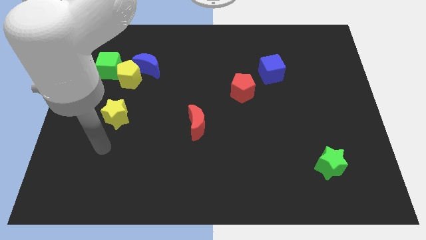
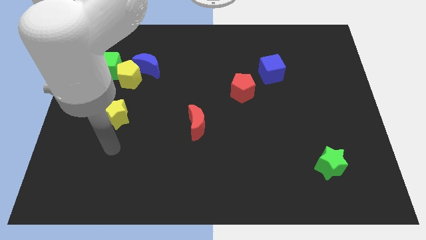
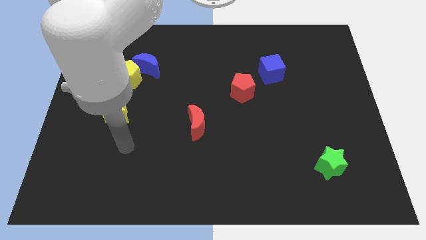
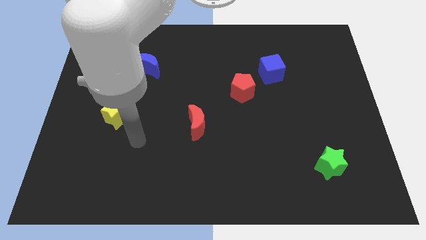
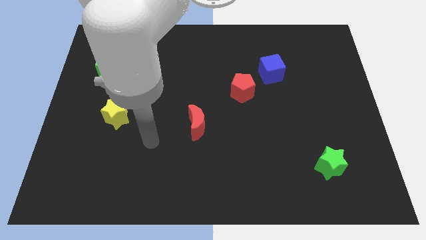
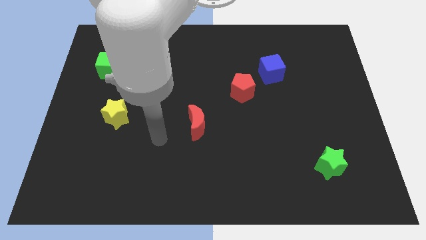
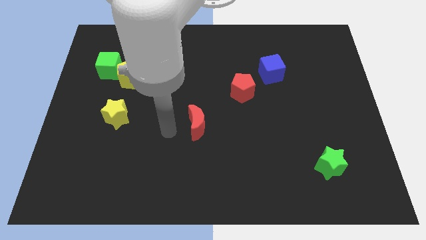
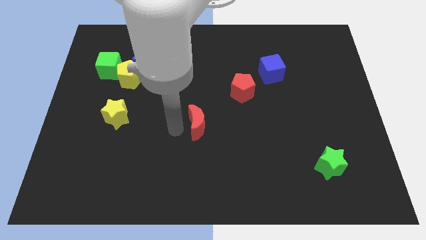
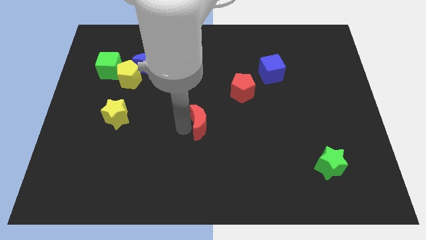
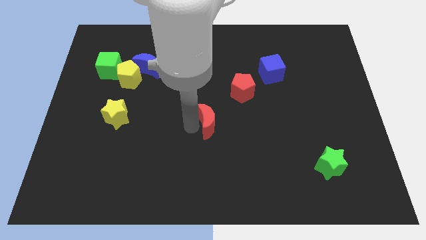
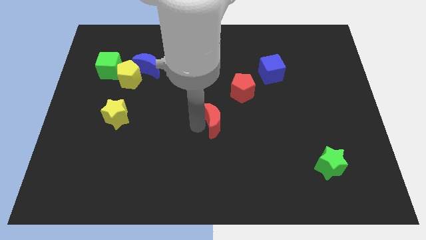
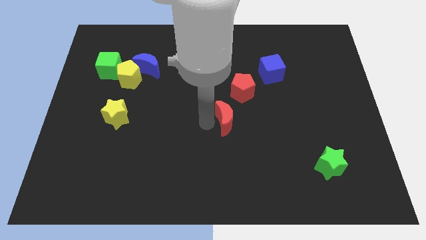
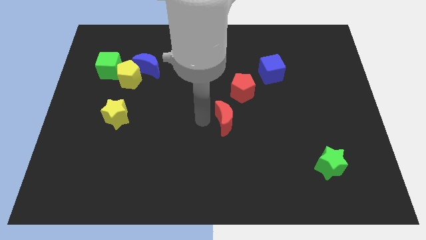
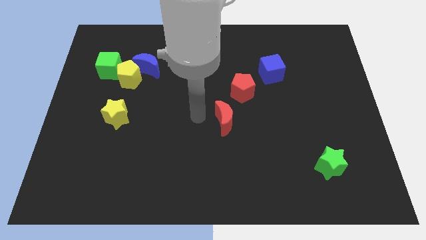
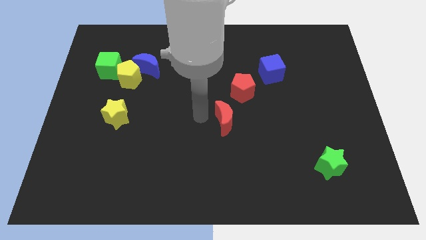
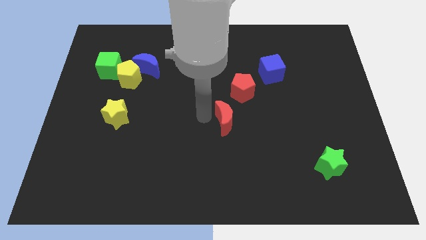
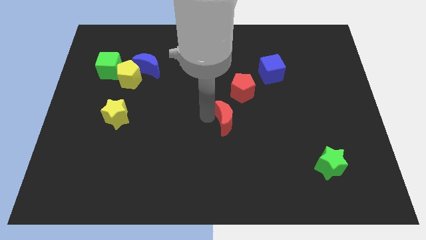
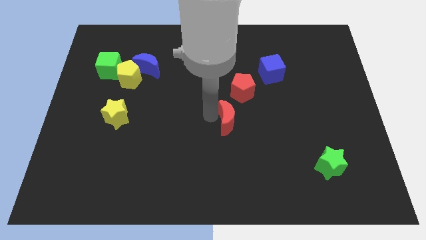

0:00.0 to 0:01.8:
move the red moon a bit right

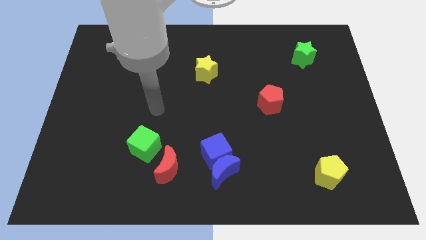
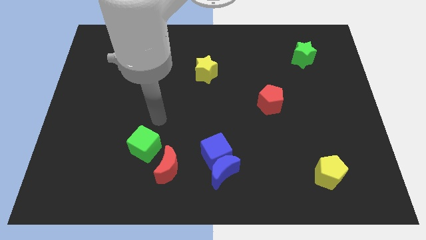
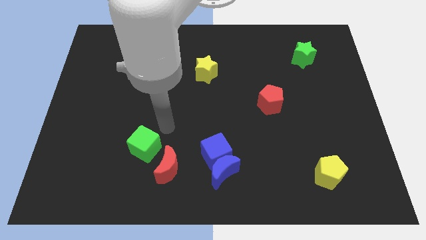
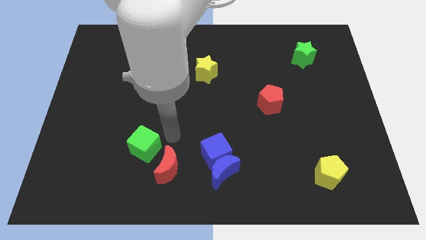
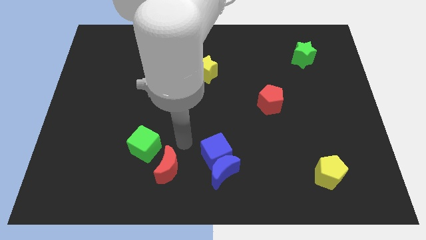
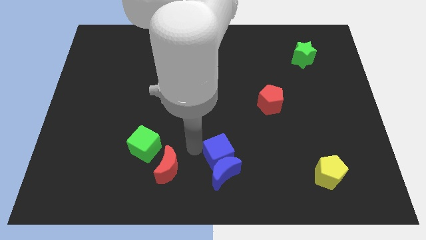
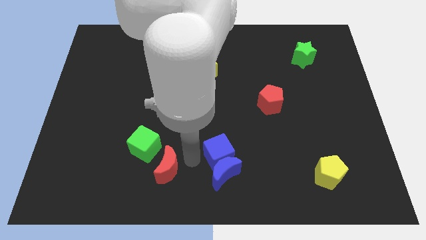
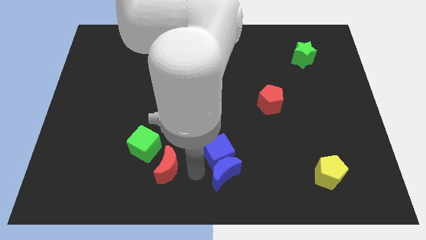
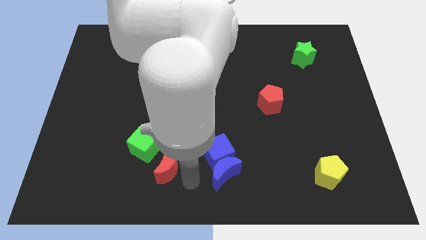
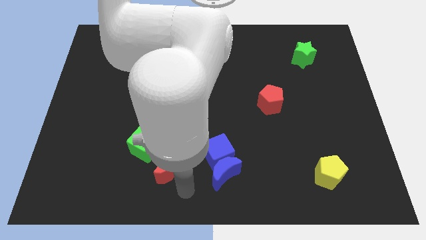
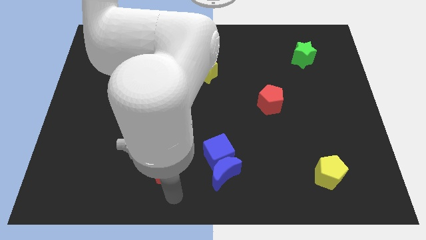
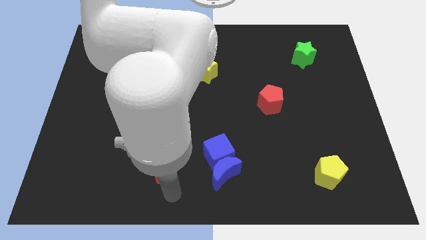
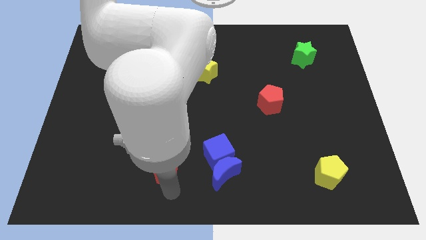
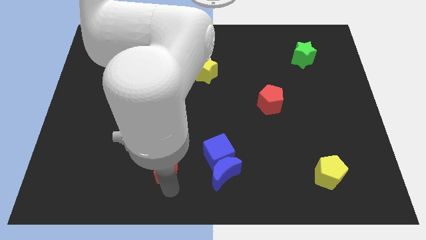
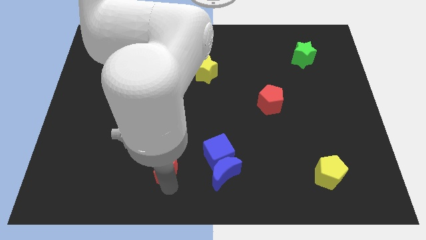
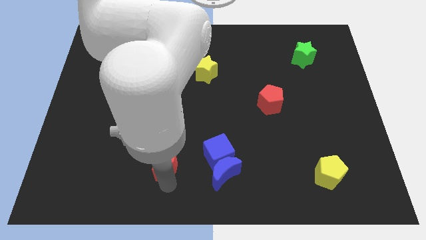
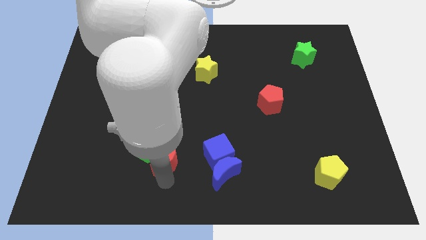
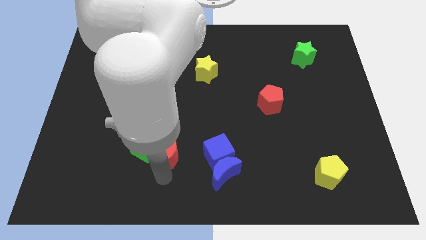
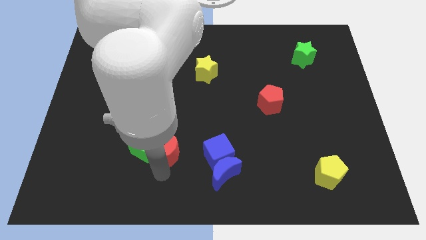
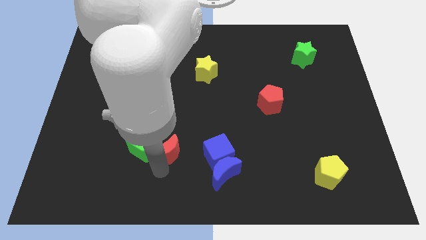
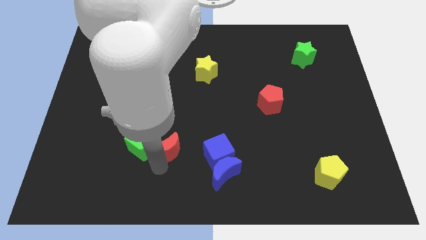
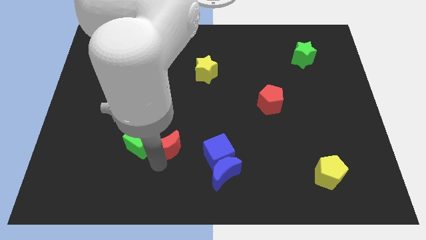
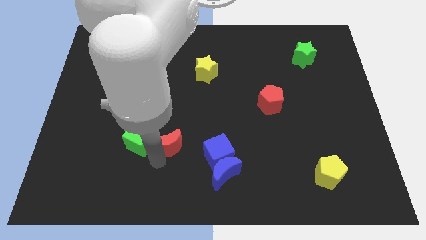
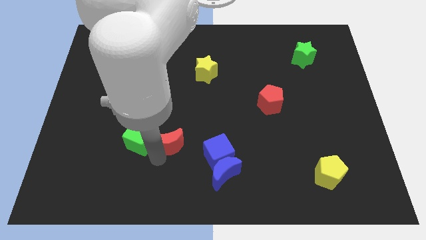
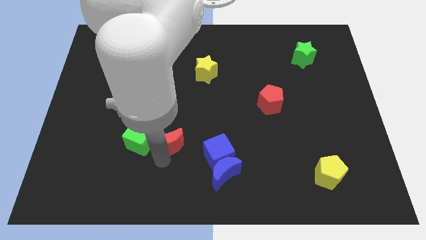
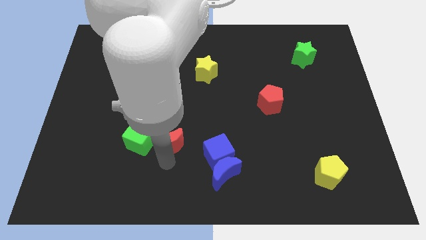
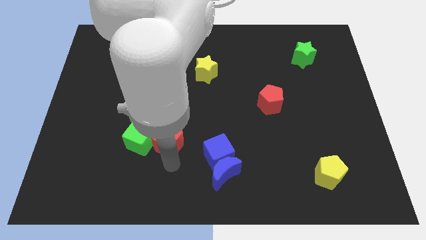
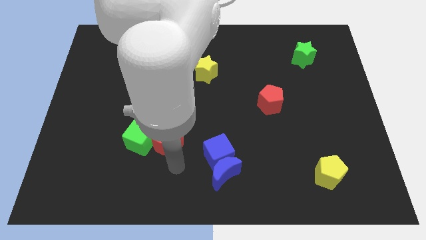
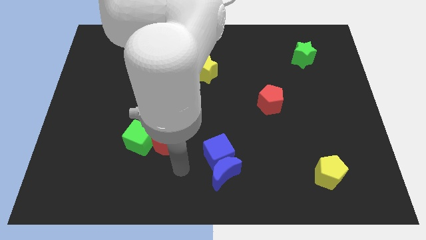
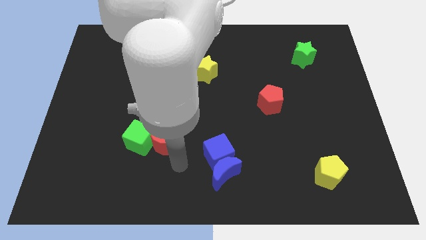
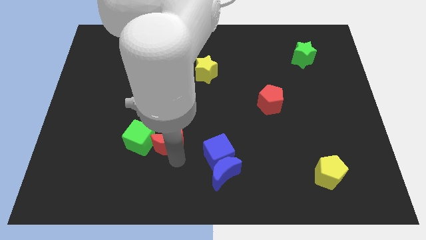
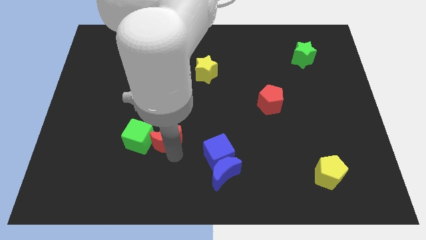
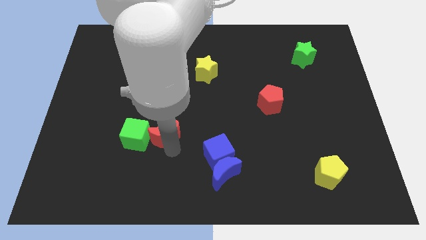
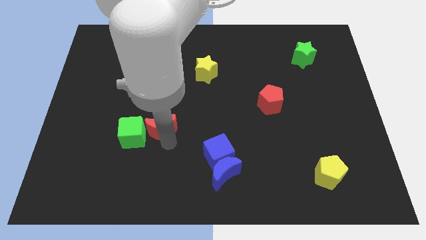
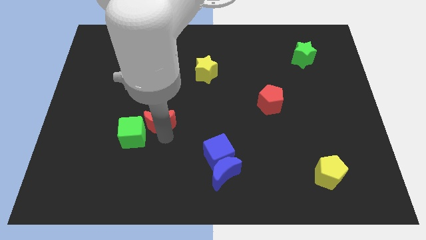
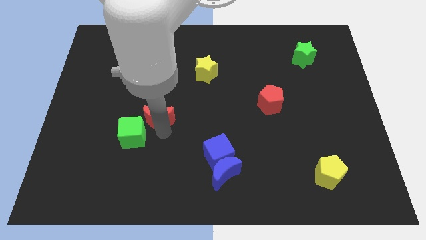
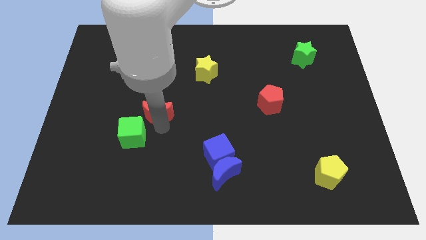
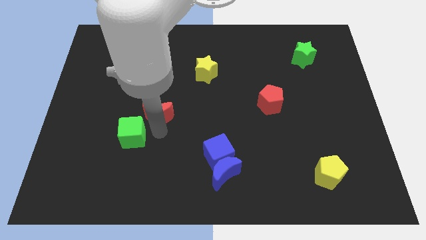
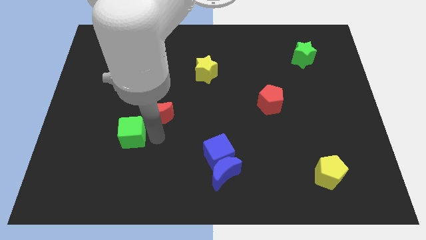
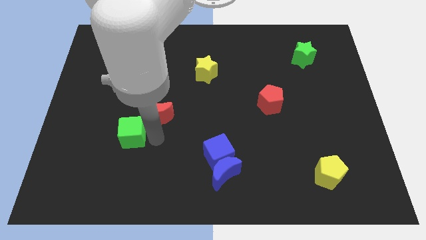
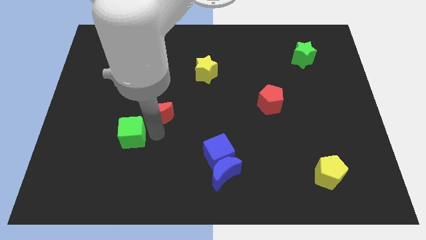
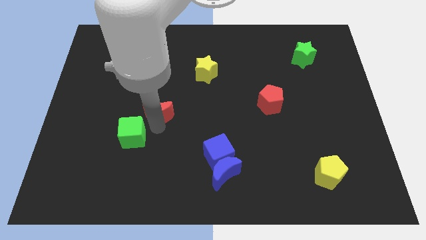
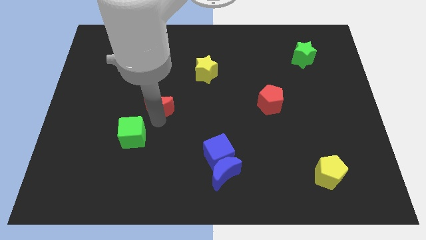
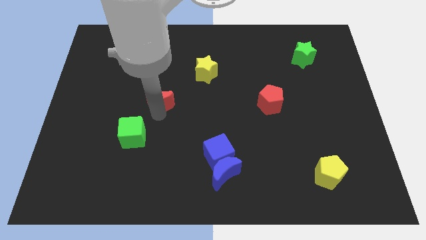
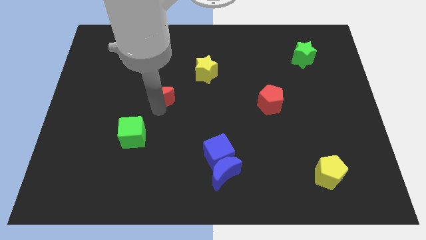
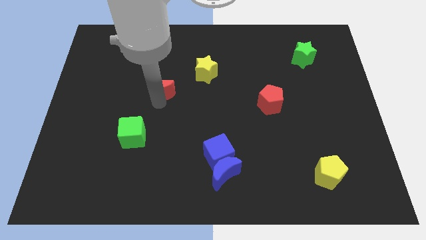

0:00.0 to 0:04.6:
move the red moon upwards

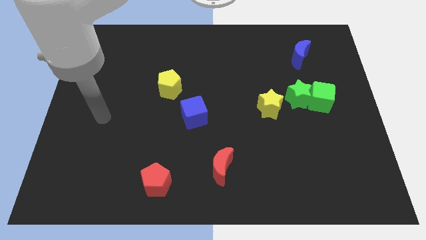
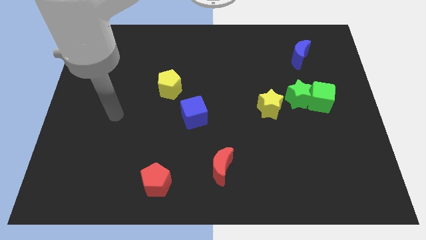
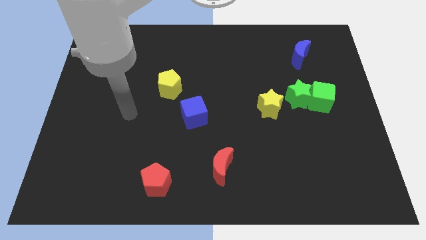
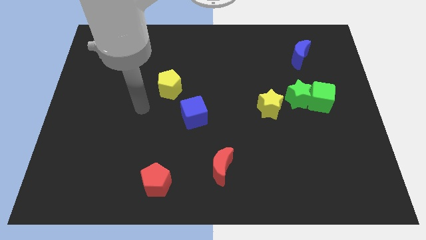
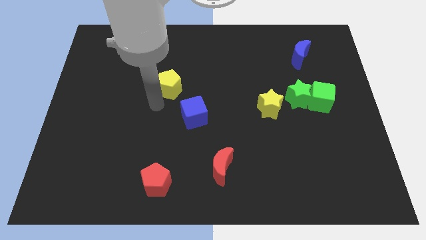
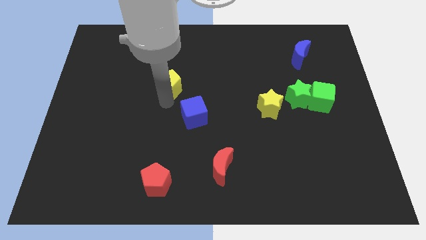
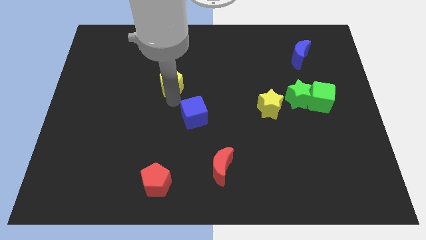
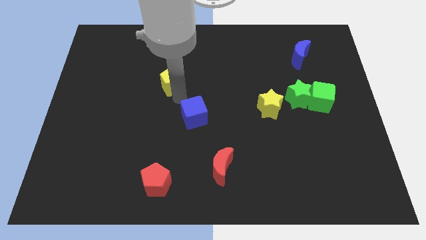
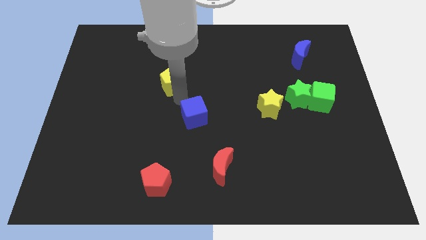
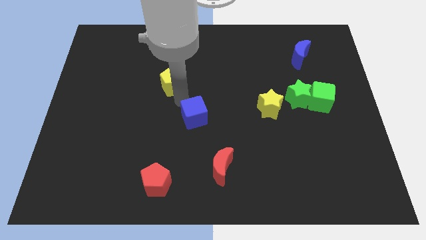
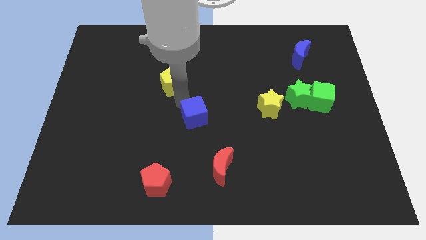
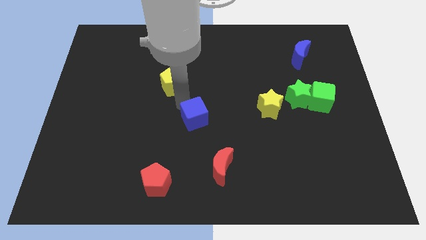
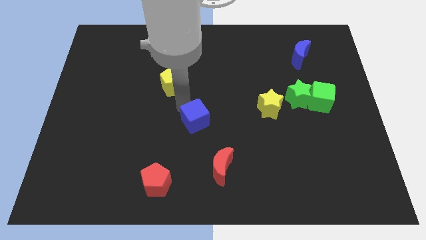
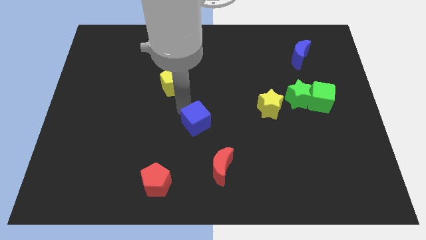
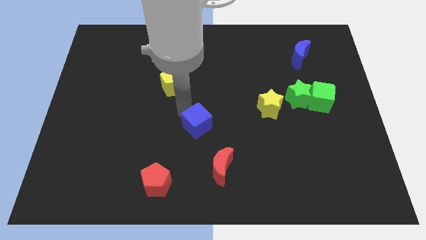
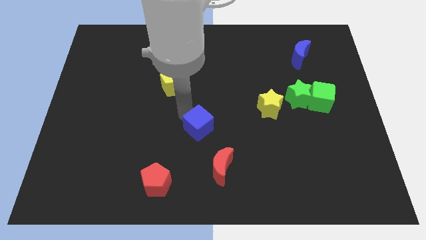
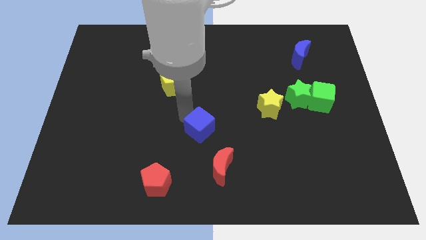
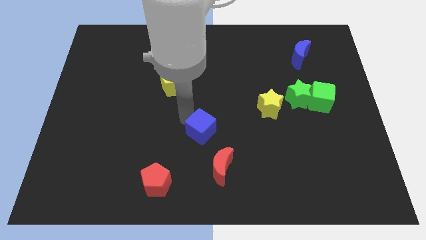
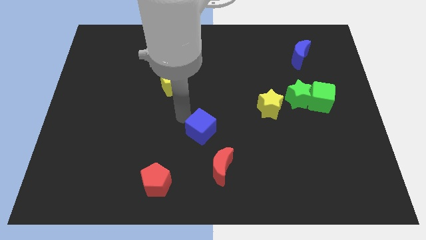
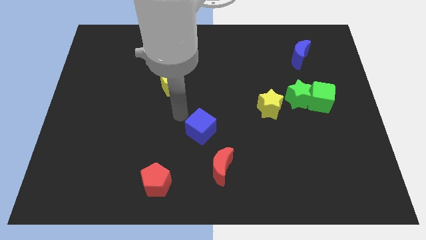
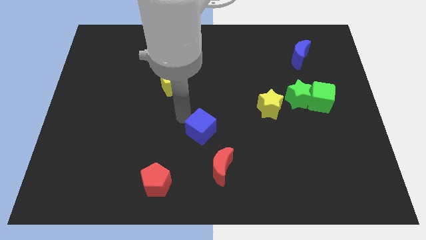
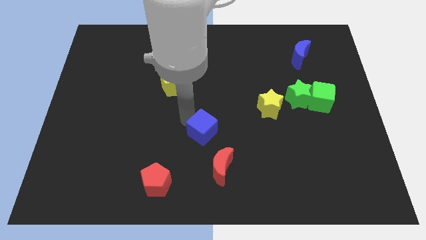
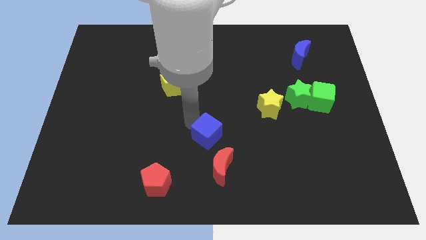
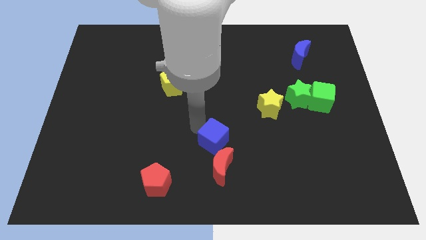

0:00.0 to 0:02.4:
slide the blue cube diagonally downwards and to the right a little
